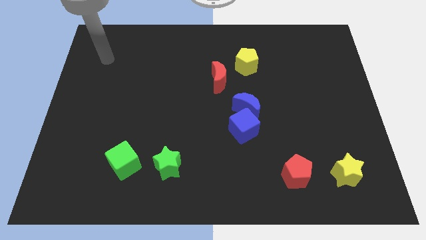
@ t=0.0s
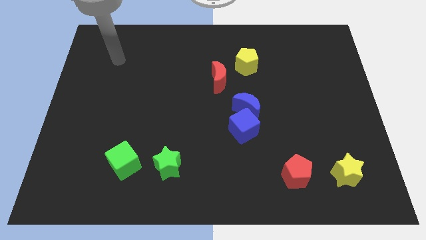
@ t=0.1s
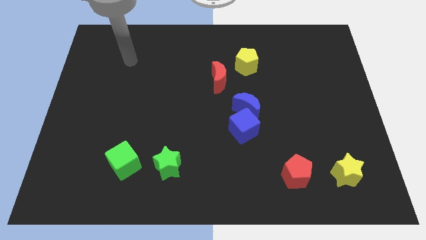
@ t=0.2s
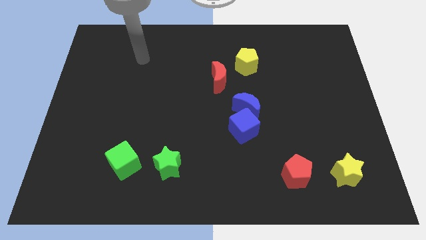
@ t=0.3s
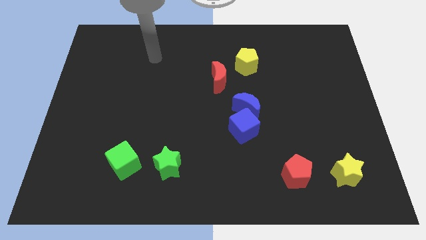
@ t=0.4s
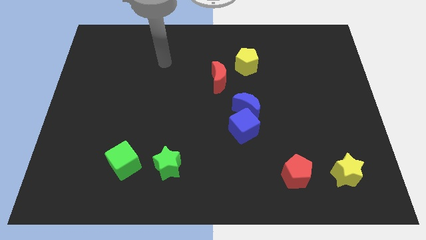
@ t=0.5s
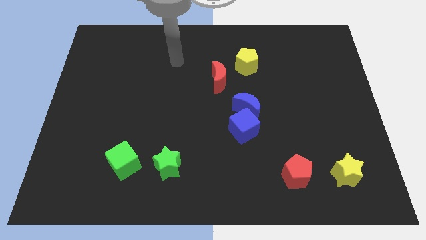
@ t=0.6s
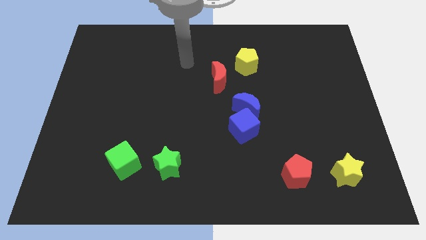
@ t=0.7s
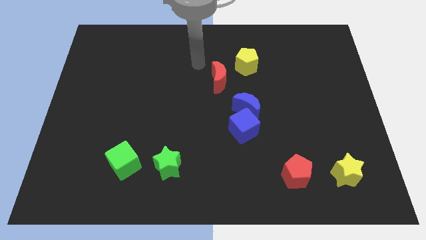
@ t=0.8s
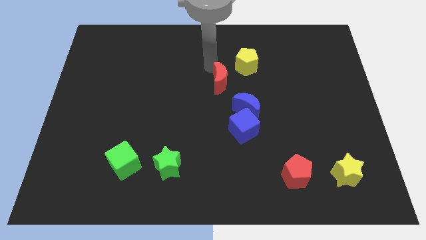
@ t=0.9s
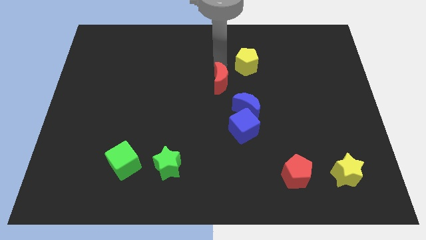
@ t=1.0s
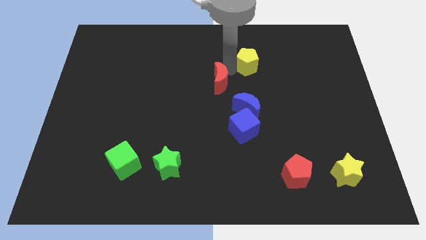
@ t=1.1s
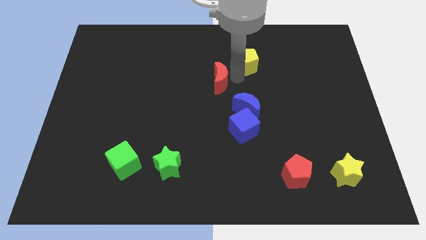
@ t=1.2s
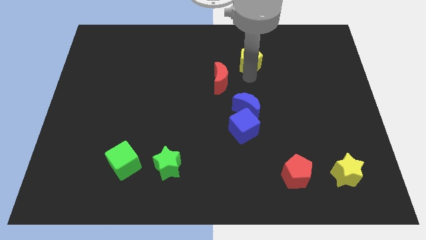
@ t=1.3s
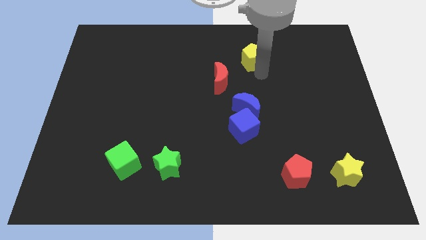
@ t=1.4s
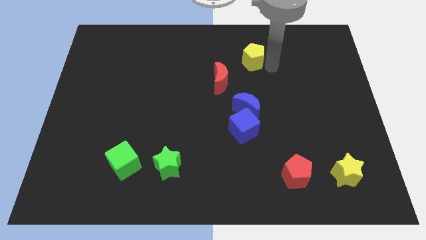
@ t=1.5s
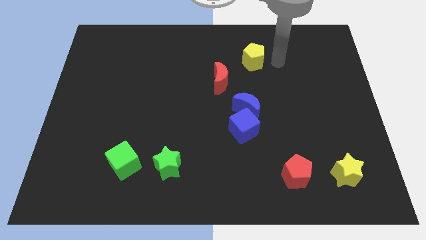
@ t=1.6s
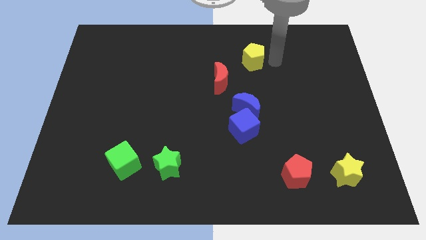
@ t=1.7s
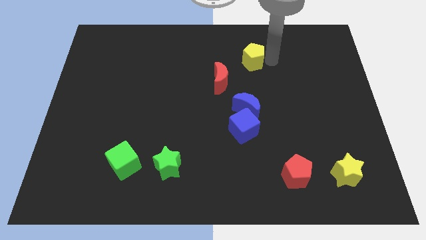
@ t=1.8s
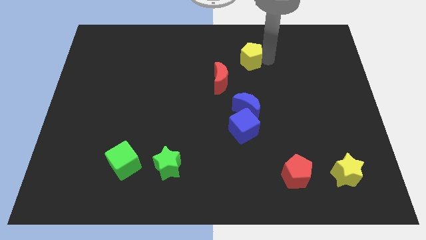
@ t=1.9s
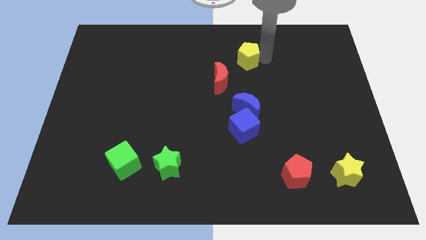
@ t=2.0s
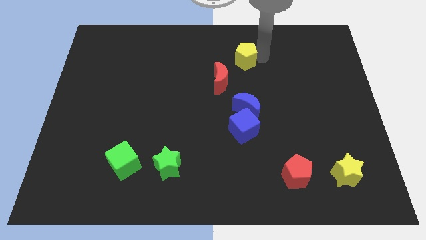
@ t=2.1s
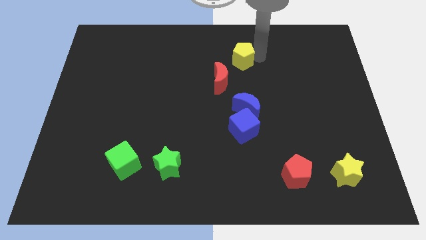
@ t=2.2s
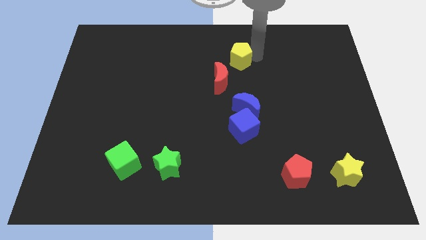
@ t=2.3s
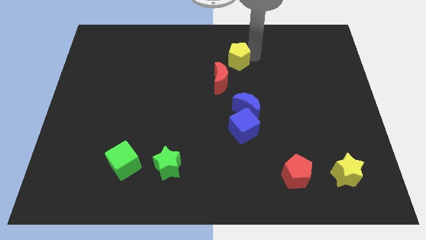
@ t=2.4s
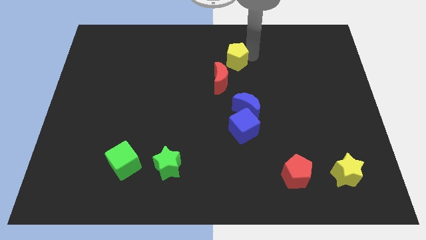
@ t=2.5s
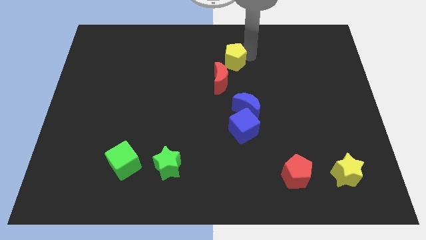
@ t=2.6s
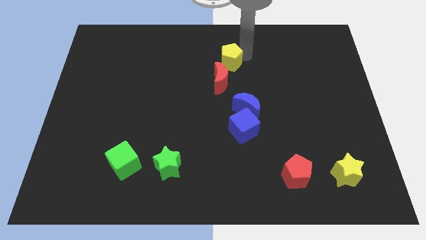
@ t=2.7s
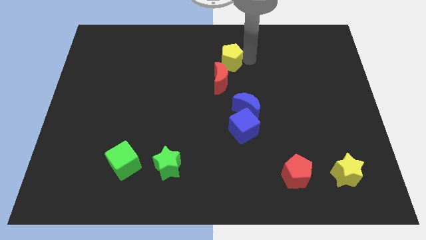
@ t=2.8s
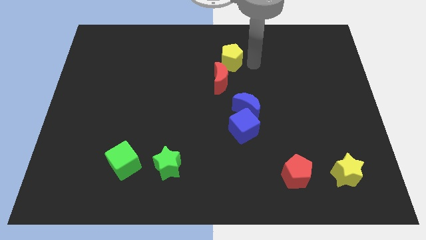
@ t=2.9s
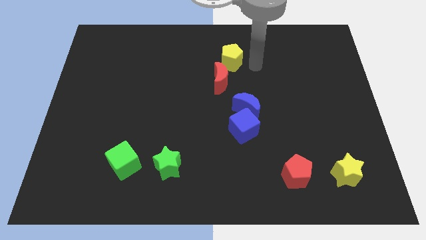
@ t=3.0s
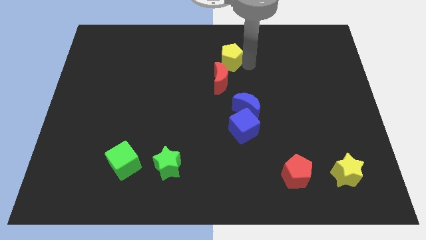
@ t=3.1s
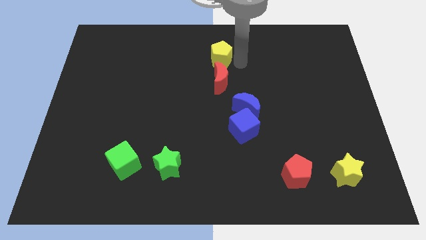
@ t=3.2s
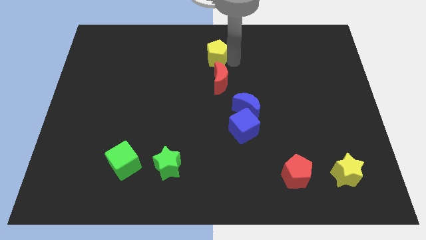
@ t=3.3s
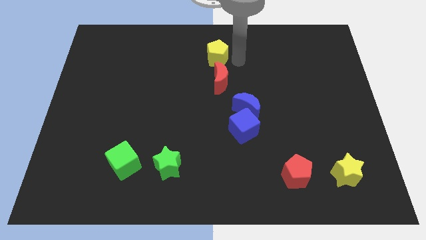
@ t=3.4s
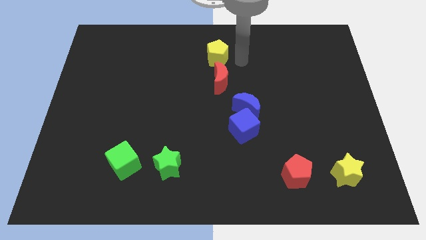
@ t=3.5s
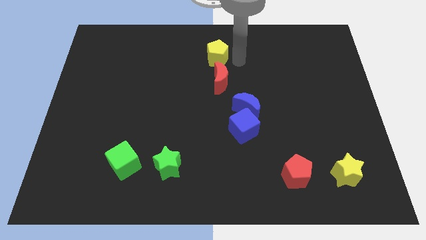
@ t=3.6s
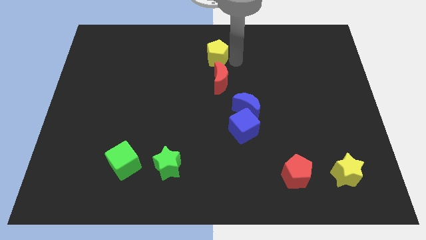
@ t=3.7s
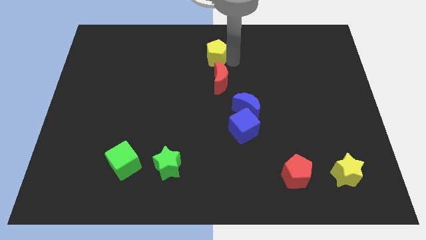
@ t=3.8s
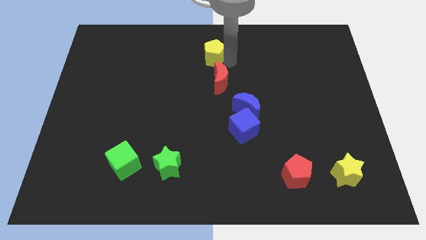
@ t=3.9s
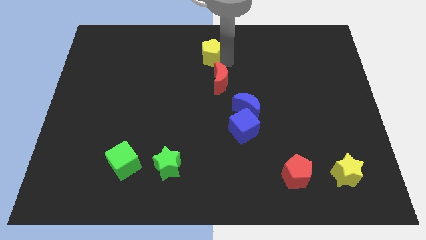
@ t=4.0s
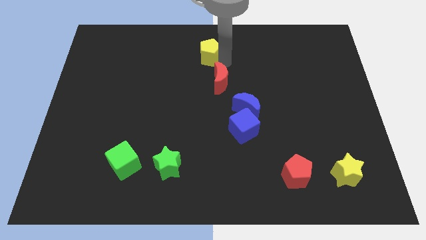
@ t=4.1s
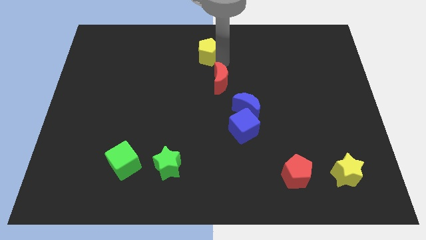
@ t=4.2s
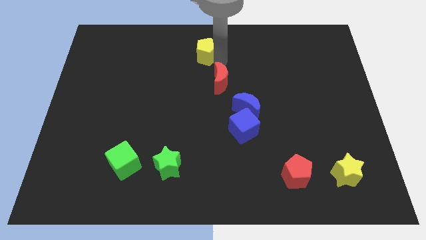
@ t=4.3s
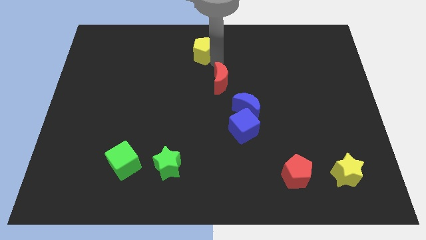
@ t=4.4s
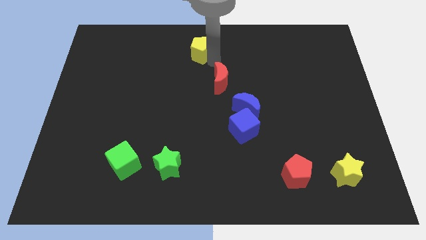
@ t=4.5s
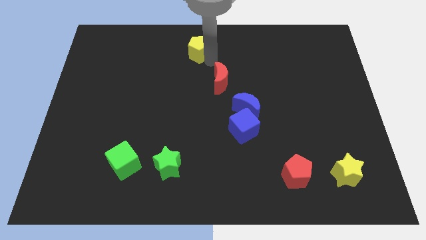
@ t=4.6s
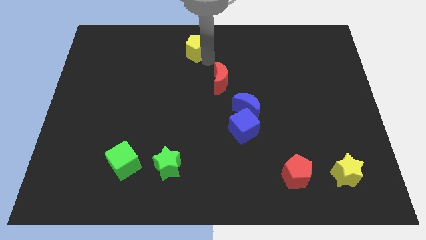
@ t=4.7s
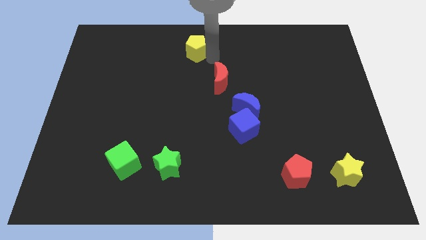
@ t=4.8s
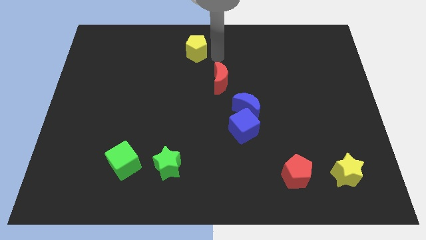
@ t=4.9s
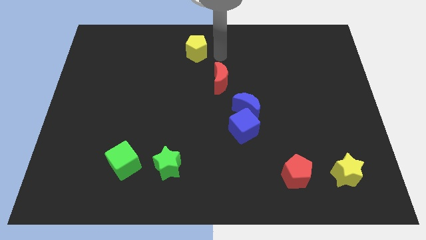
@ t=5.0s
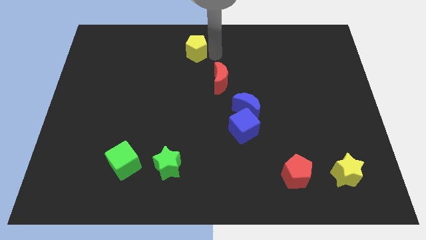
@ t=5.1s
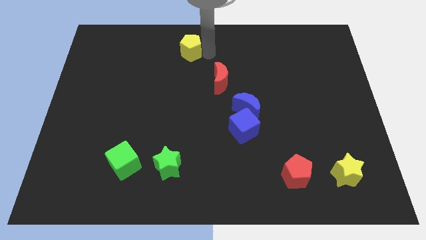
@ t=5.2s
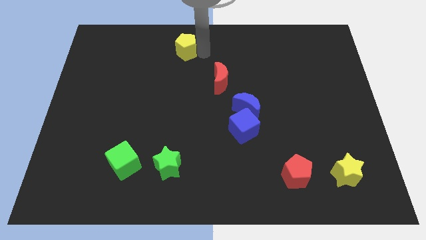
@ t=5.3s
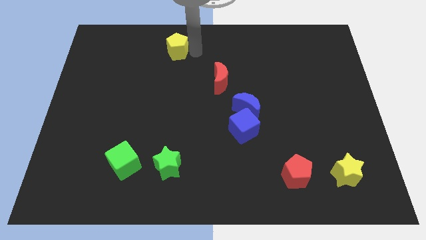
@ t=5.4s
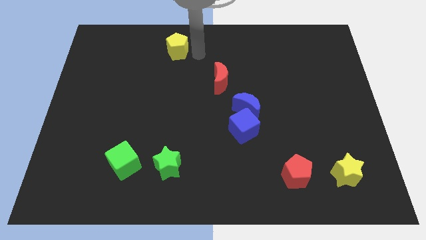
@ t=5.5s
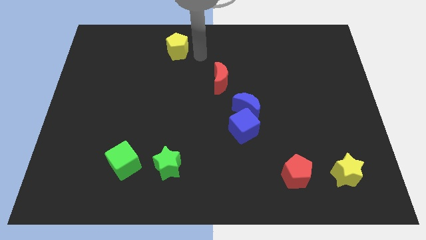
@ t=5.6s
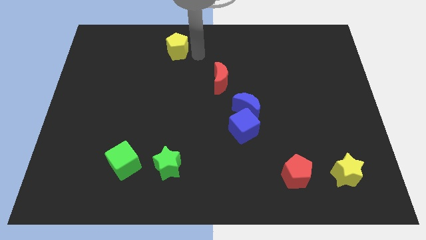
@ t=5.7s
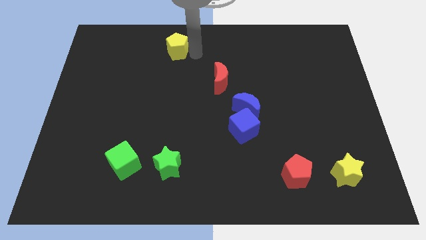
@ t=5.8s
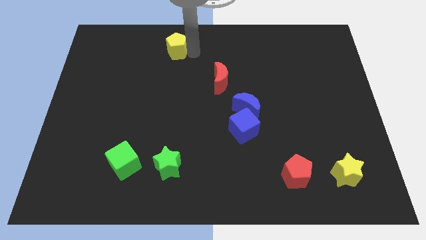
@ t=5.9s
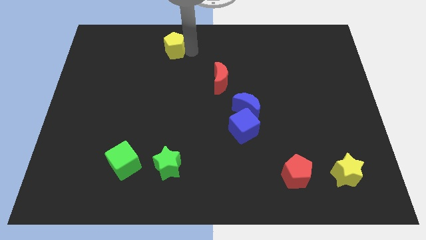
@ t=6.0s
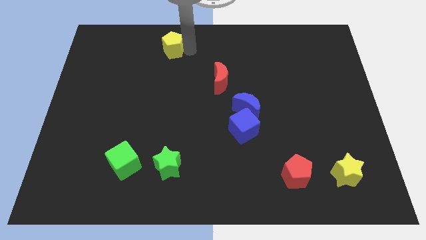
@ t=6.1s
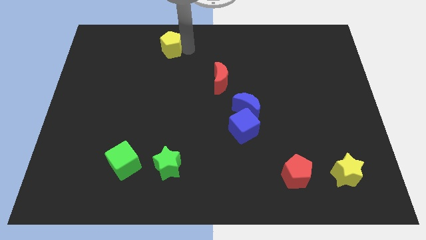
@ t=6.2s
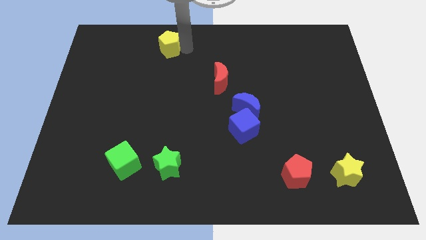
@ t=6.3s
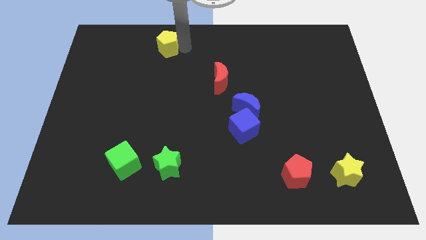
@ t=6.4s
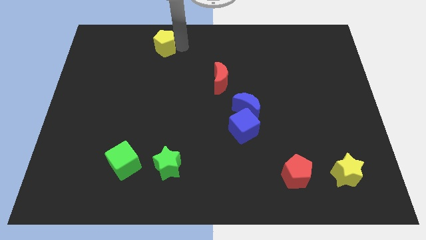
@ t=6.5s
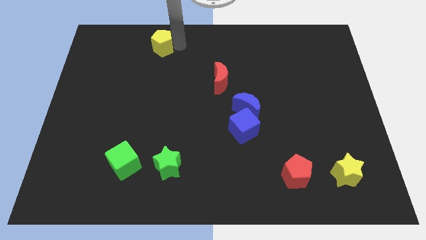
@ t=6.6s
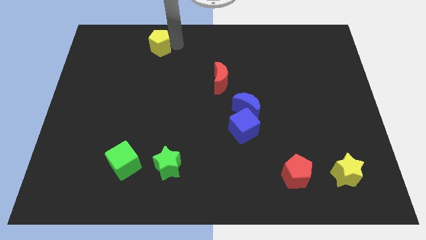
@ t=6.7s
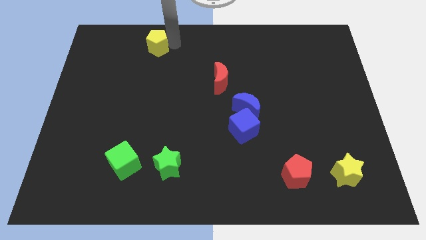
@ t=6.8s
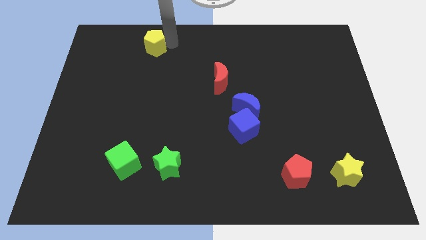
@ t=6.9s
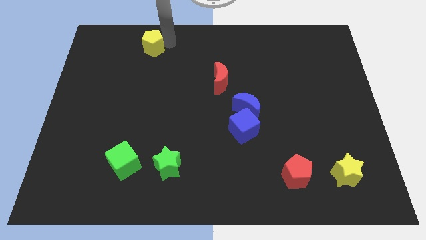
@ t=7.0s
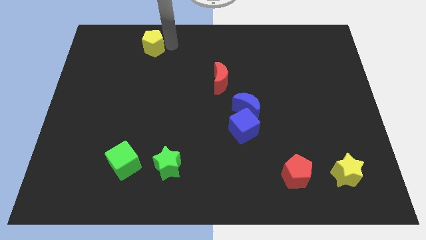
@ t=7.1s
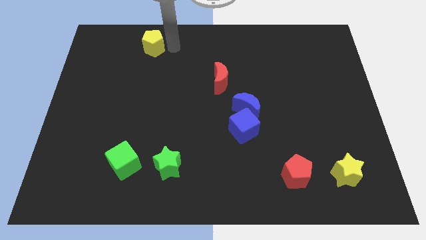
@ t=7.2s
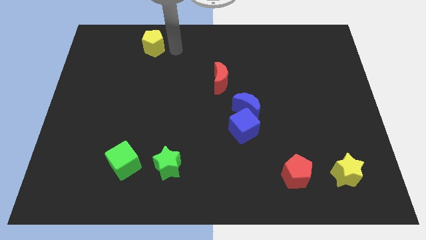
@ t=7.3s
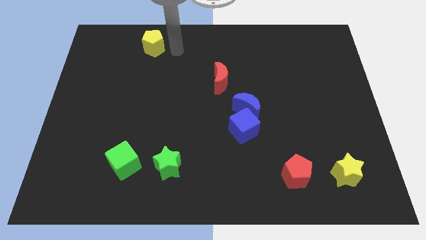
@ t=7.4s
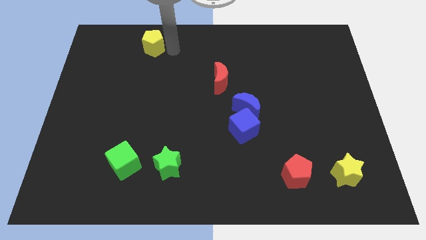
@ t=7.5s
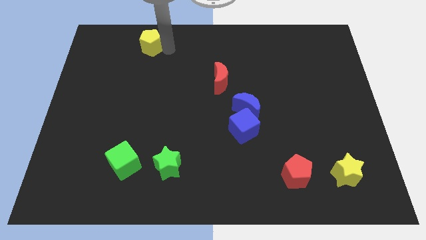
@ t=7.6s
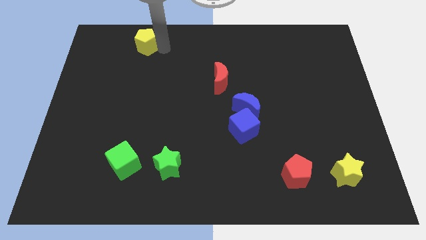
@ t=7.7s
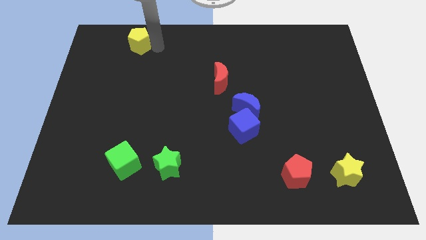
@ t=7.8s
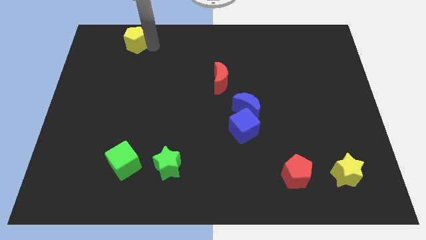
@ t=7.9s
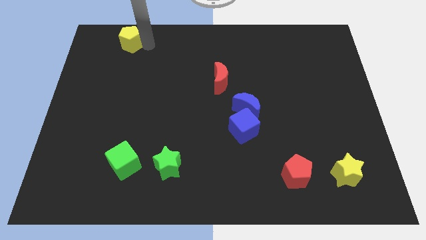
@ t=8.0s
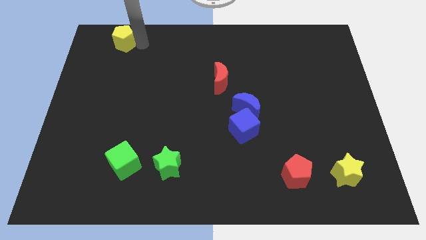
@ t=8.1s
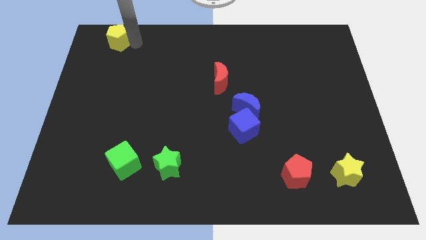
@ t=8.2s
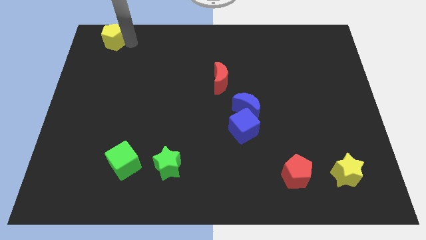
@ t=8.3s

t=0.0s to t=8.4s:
put the yellow pentagon to the top left corner
